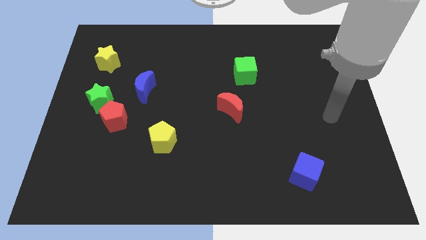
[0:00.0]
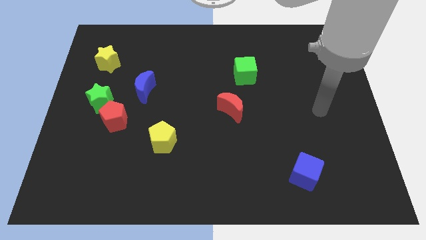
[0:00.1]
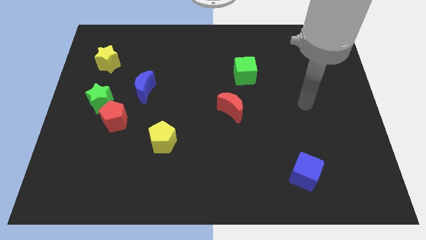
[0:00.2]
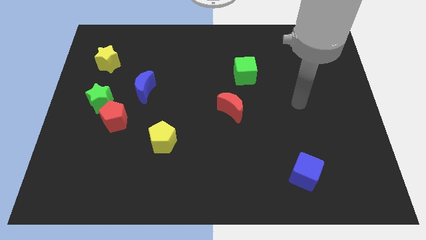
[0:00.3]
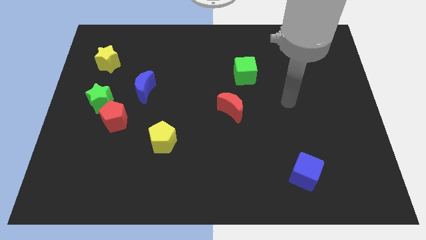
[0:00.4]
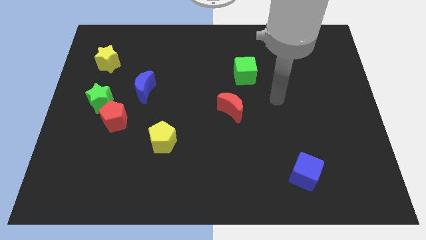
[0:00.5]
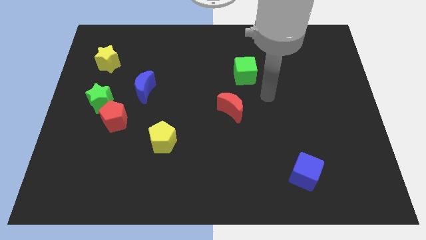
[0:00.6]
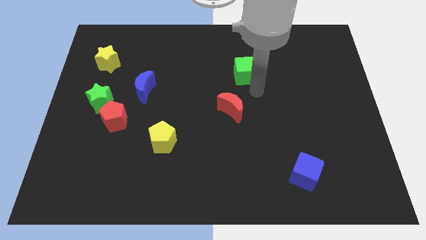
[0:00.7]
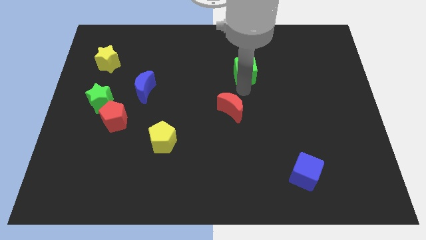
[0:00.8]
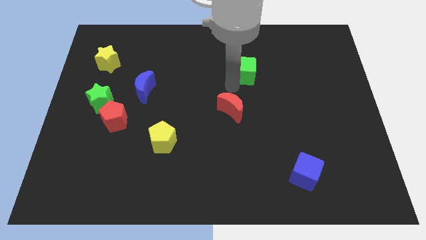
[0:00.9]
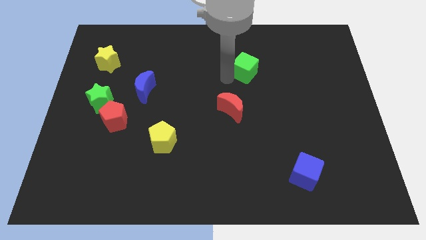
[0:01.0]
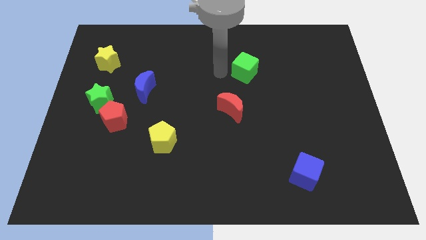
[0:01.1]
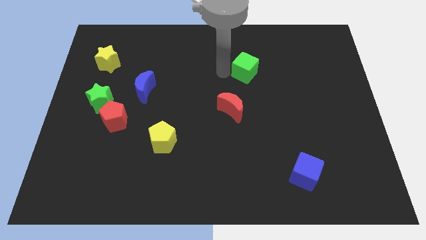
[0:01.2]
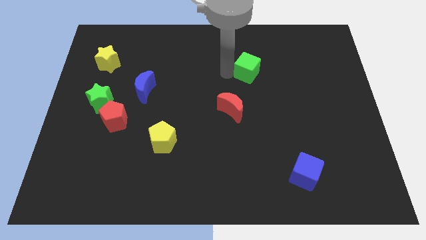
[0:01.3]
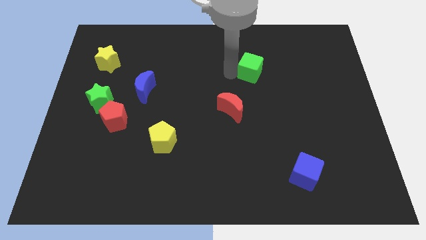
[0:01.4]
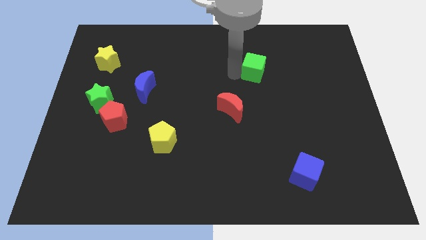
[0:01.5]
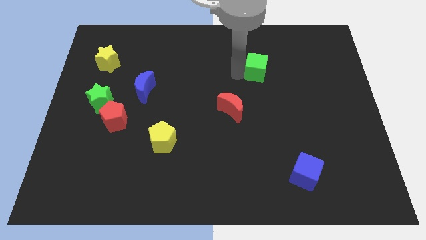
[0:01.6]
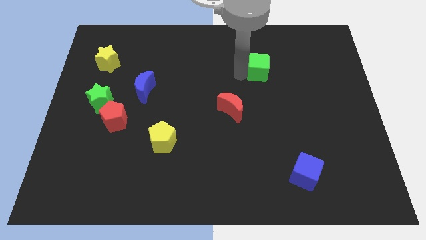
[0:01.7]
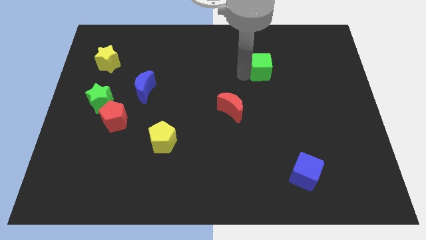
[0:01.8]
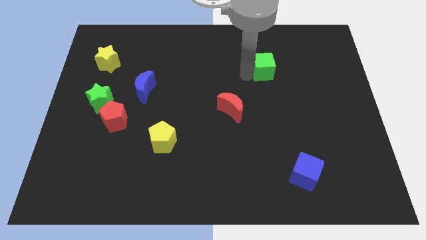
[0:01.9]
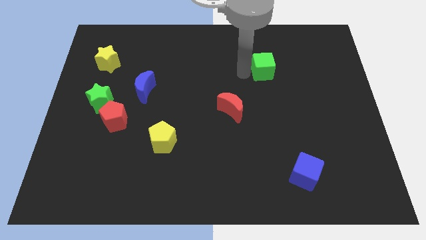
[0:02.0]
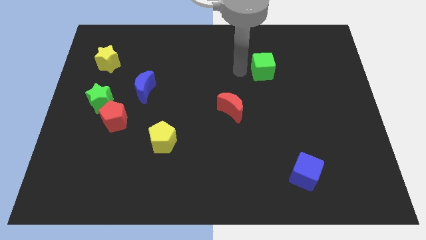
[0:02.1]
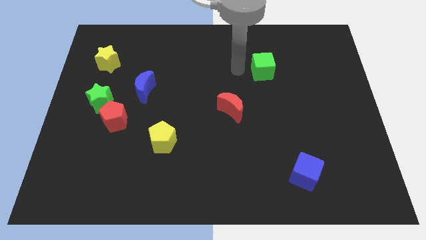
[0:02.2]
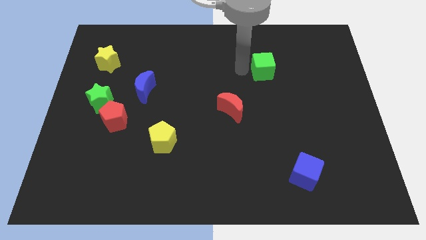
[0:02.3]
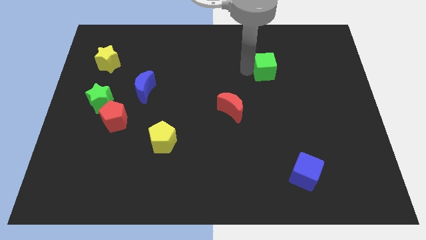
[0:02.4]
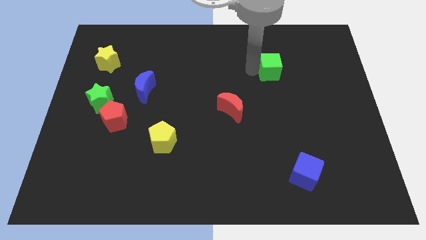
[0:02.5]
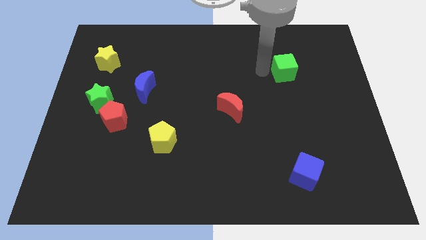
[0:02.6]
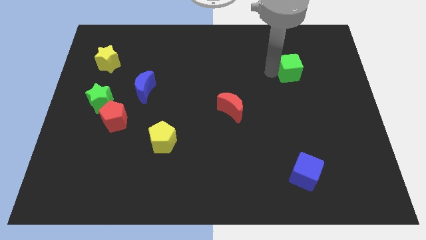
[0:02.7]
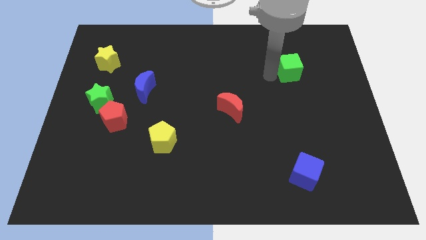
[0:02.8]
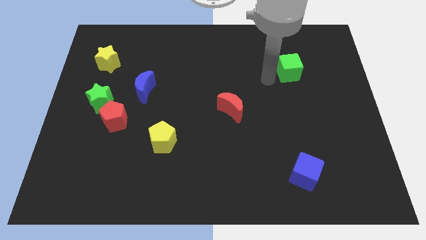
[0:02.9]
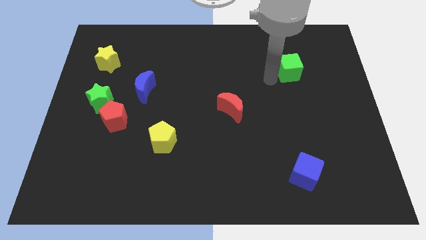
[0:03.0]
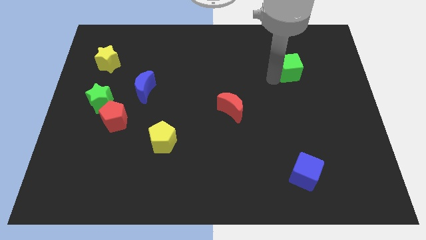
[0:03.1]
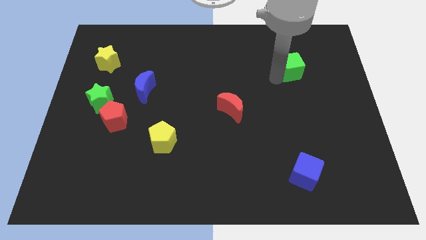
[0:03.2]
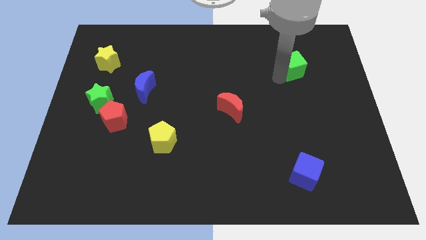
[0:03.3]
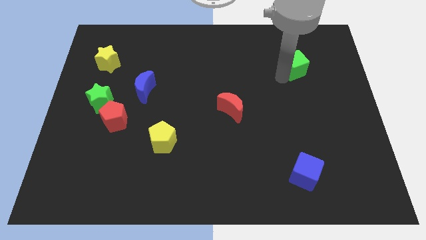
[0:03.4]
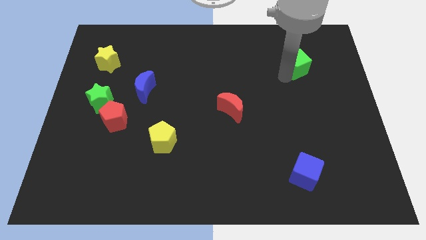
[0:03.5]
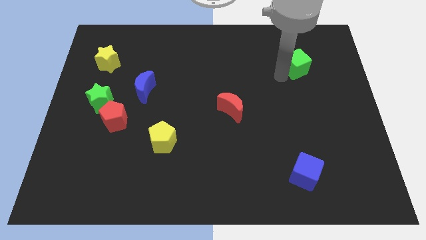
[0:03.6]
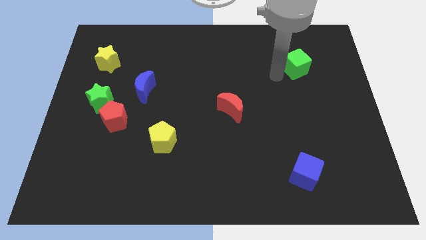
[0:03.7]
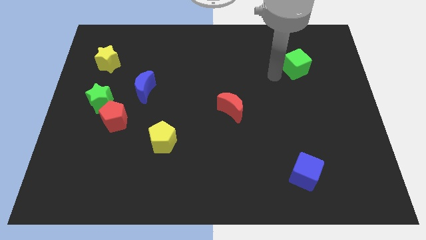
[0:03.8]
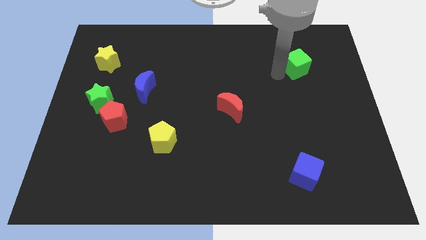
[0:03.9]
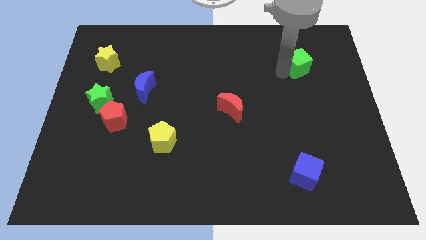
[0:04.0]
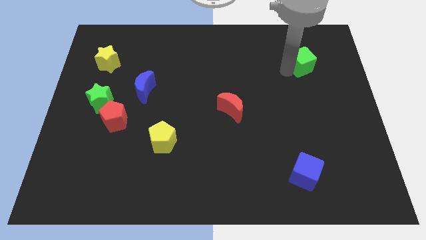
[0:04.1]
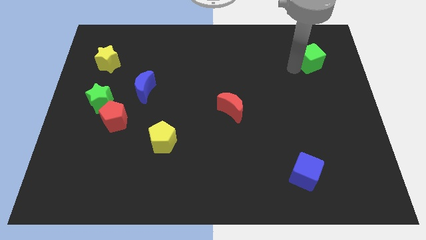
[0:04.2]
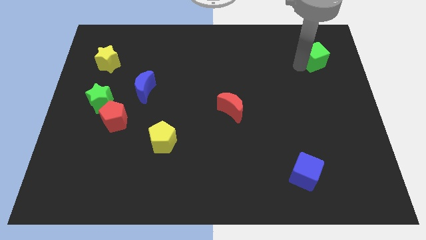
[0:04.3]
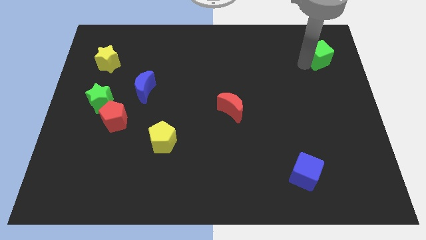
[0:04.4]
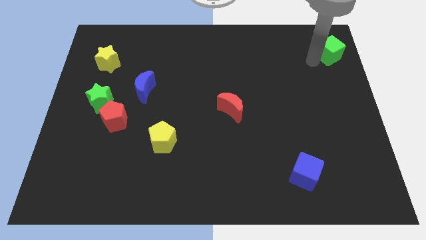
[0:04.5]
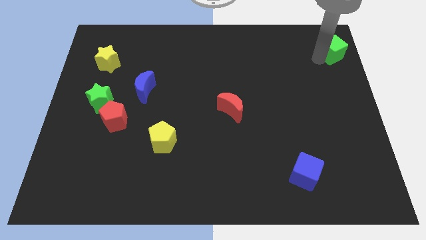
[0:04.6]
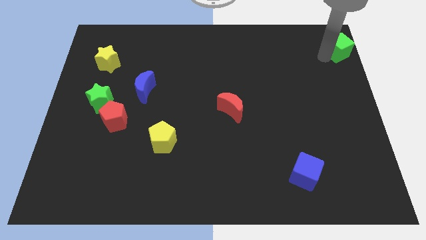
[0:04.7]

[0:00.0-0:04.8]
push the green cube to the top right of the board

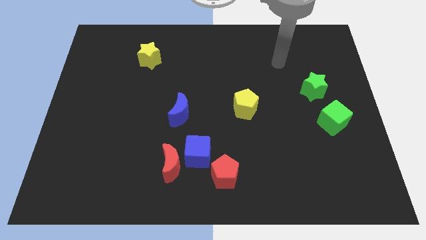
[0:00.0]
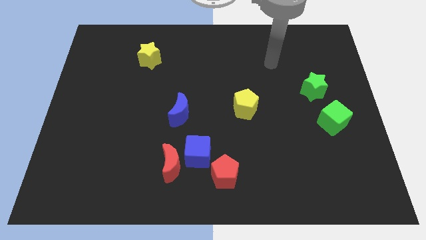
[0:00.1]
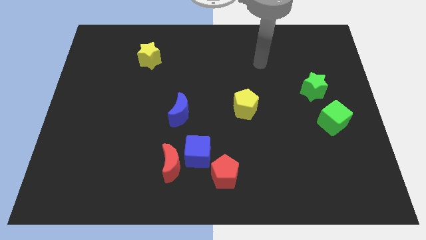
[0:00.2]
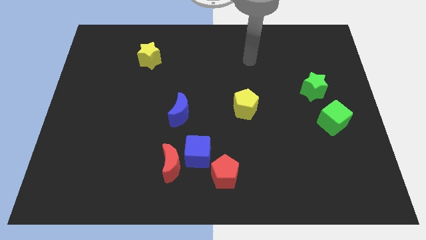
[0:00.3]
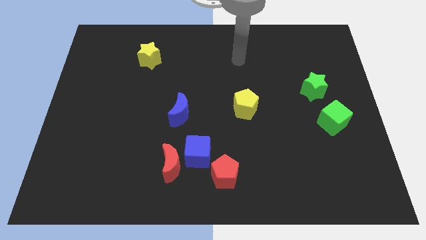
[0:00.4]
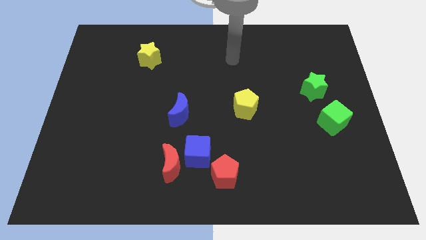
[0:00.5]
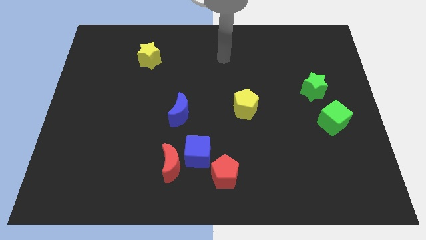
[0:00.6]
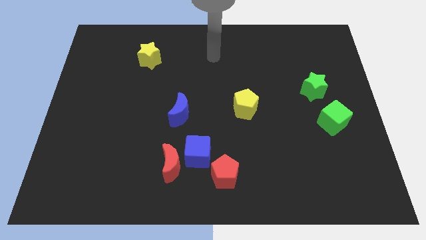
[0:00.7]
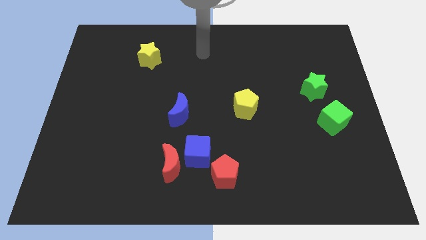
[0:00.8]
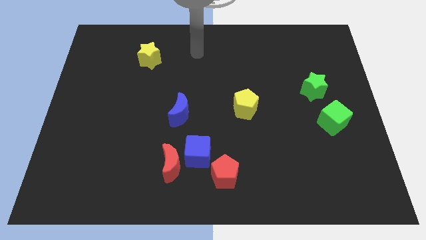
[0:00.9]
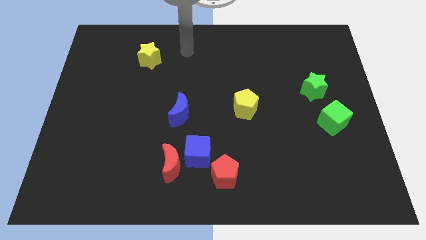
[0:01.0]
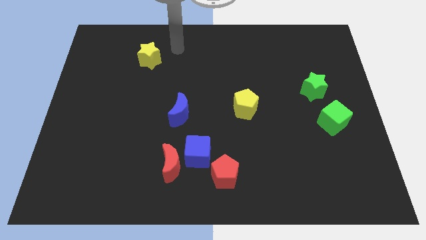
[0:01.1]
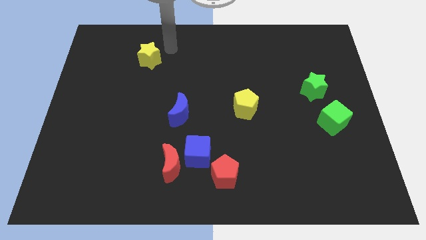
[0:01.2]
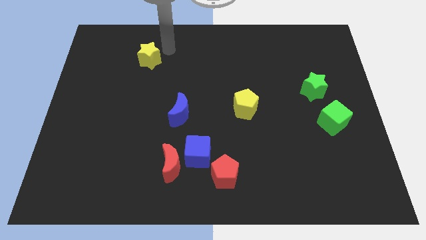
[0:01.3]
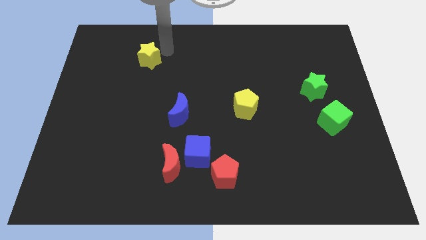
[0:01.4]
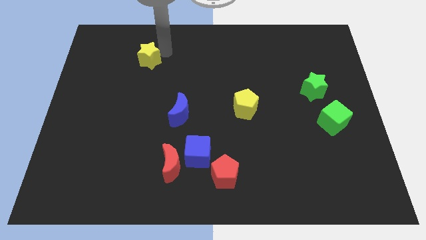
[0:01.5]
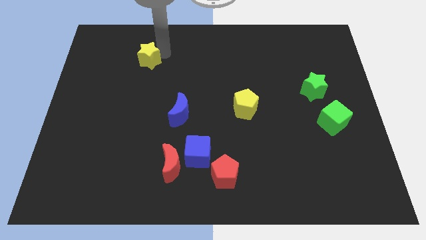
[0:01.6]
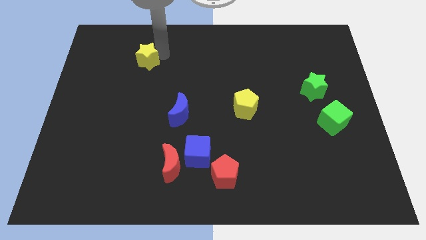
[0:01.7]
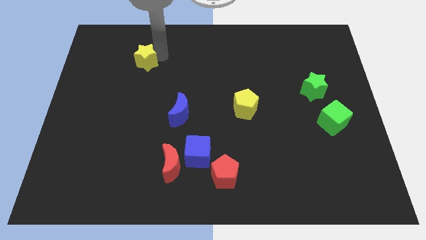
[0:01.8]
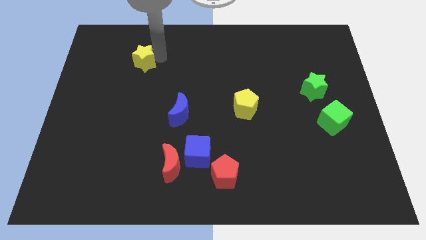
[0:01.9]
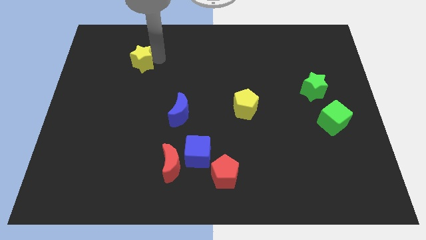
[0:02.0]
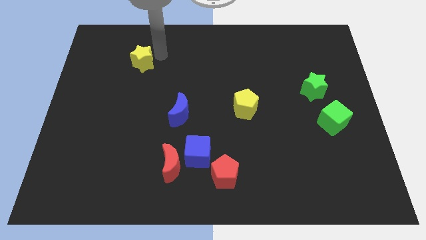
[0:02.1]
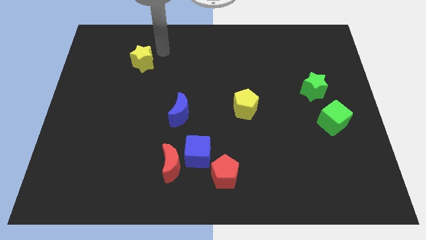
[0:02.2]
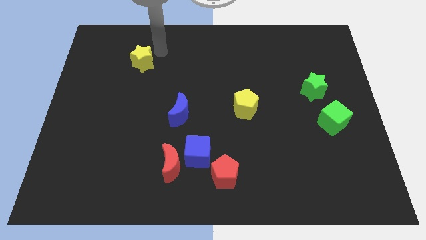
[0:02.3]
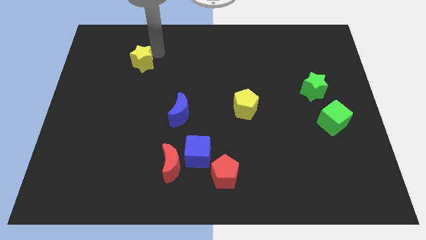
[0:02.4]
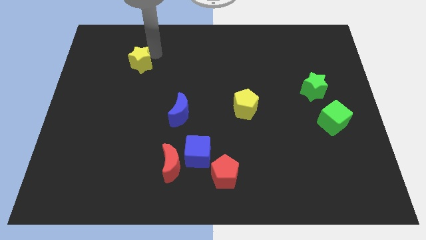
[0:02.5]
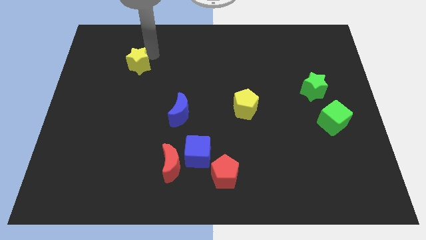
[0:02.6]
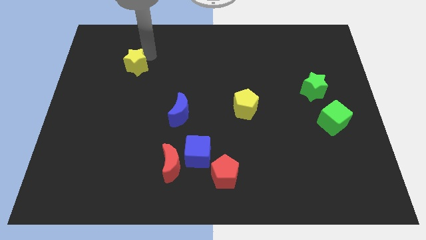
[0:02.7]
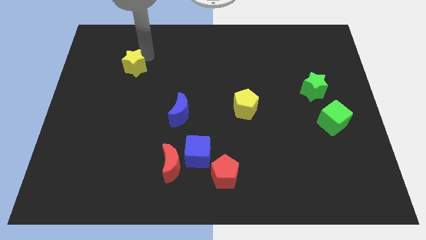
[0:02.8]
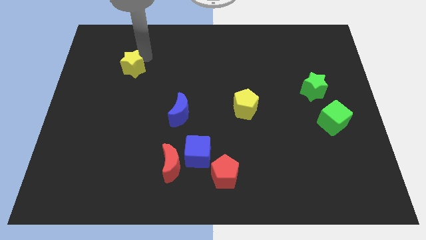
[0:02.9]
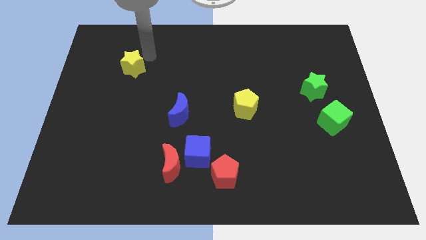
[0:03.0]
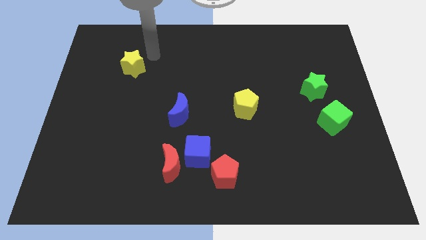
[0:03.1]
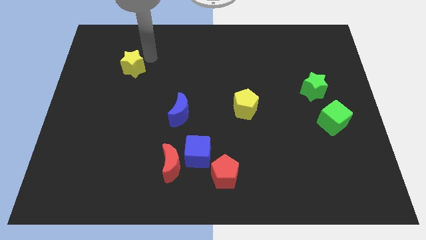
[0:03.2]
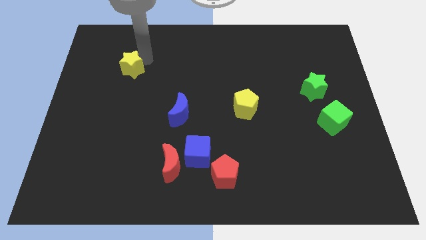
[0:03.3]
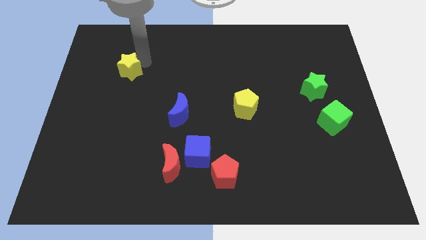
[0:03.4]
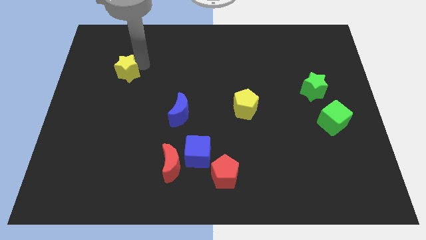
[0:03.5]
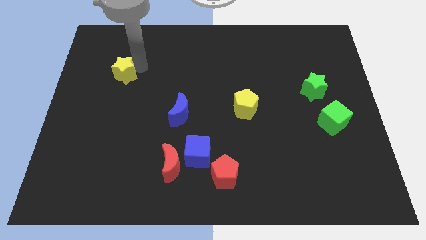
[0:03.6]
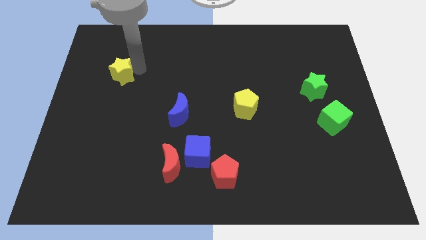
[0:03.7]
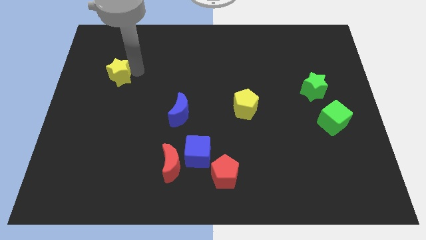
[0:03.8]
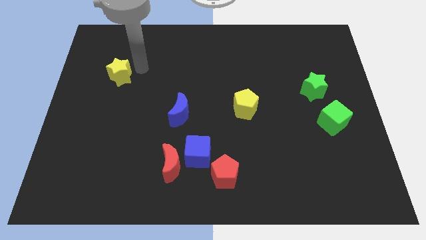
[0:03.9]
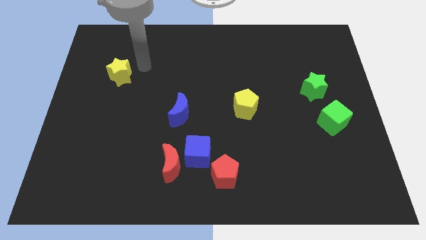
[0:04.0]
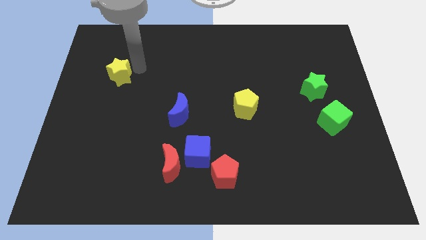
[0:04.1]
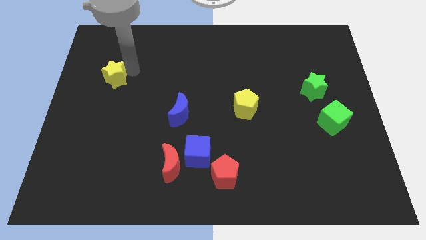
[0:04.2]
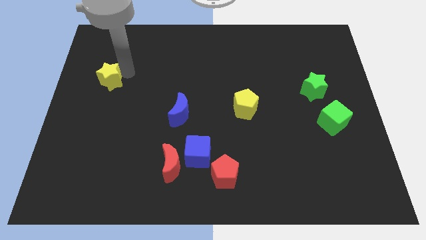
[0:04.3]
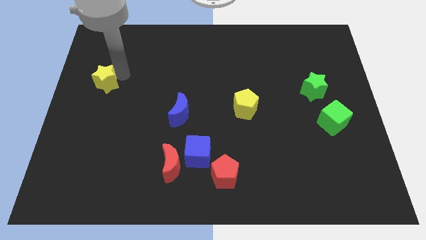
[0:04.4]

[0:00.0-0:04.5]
put the yellow star to the left side of the board
